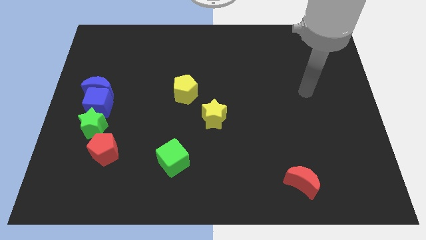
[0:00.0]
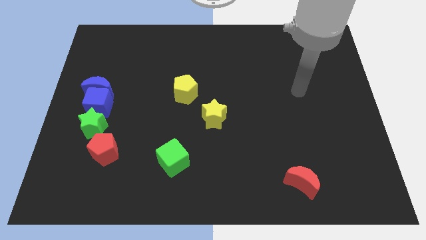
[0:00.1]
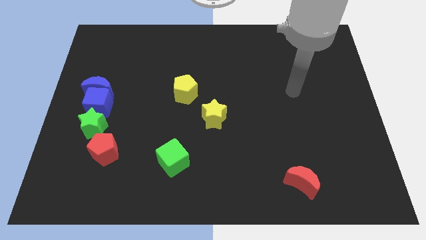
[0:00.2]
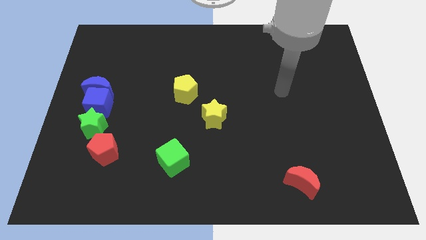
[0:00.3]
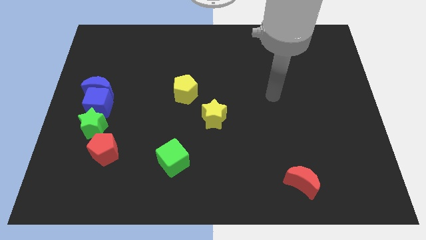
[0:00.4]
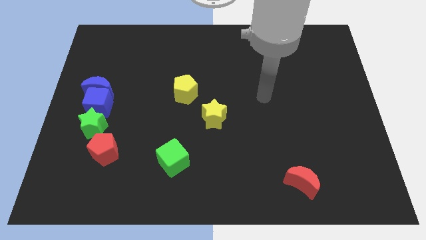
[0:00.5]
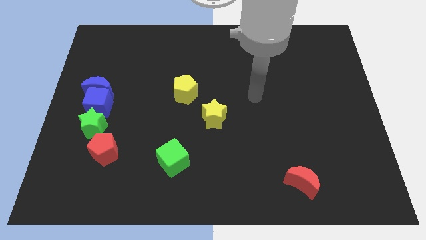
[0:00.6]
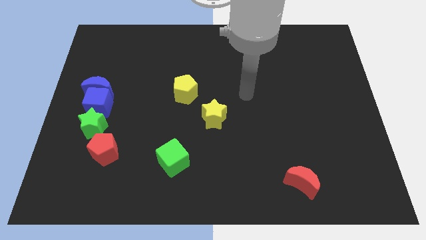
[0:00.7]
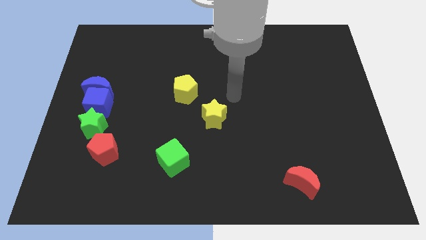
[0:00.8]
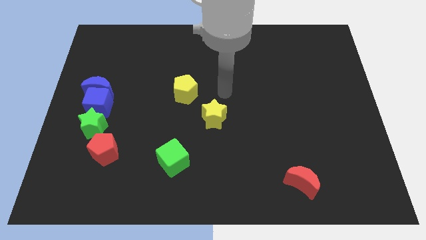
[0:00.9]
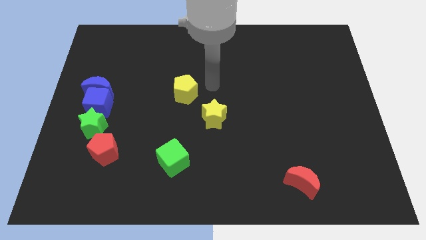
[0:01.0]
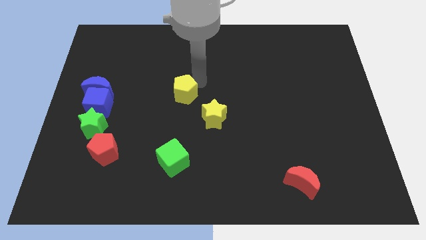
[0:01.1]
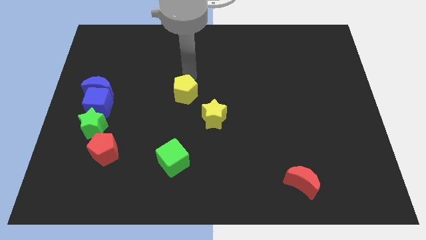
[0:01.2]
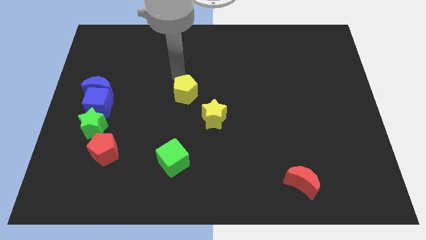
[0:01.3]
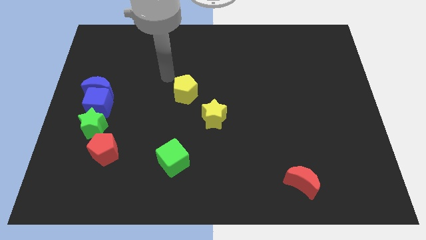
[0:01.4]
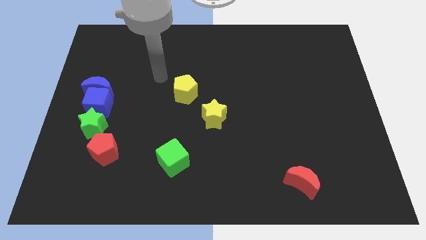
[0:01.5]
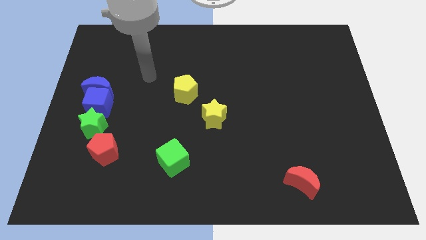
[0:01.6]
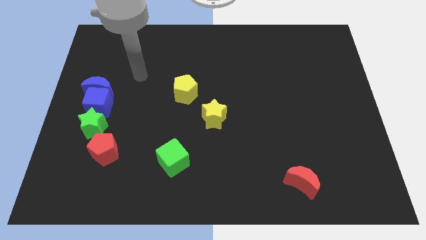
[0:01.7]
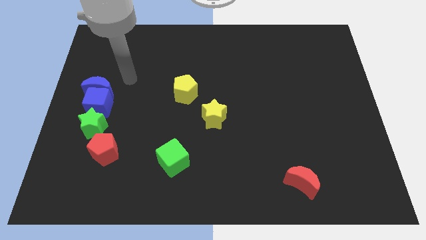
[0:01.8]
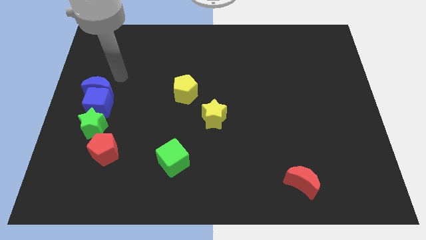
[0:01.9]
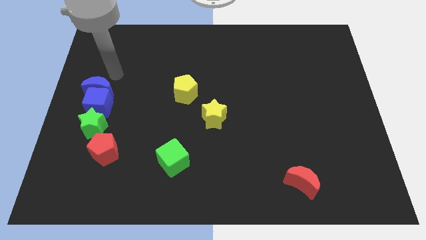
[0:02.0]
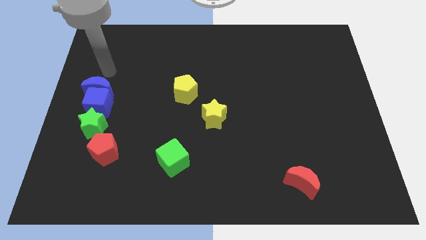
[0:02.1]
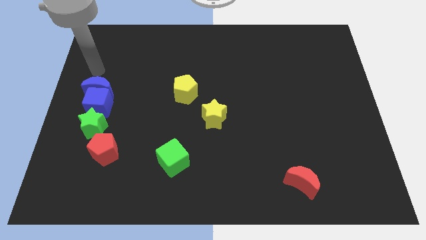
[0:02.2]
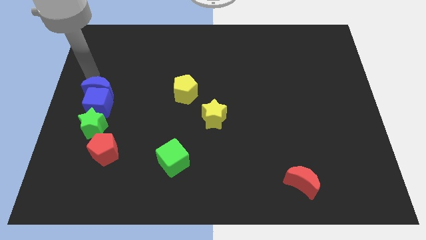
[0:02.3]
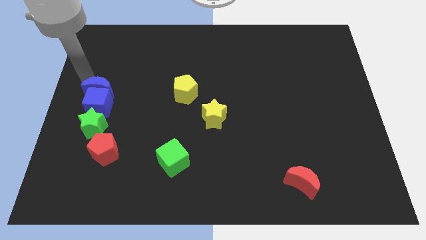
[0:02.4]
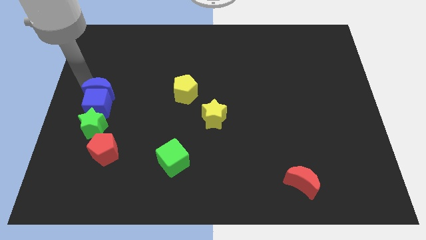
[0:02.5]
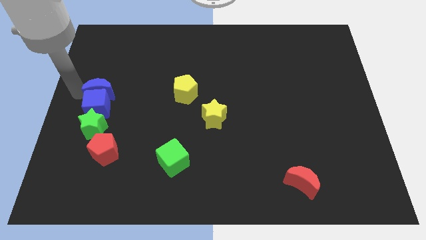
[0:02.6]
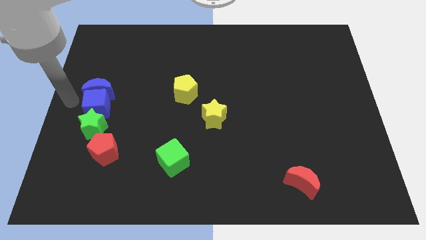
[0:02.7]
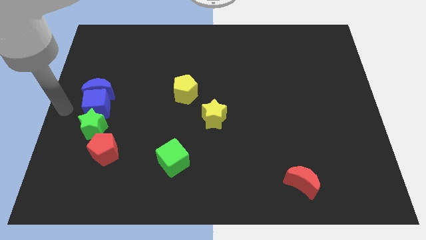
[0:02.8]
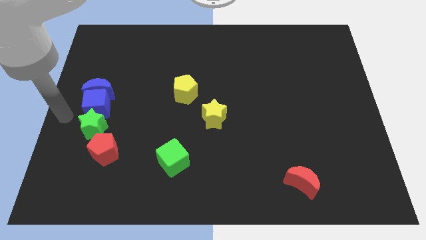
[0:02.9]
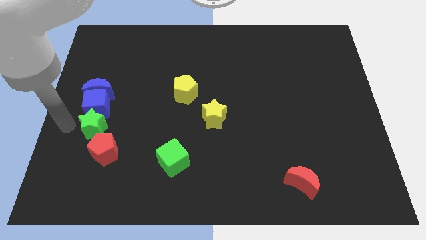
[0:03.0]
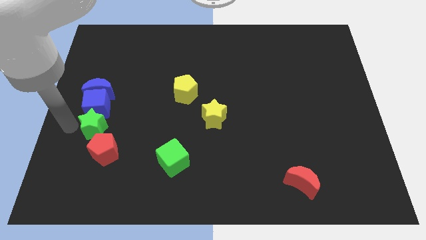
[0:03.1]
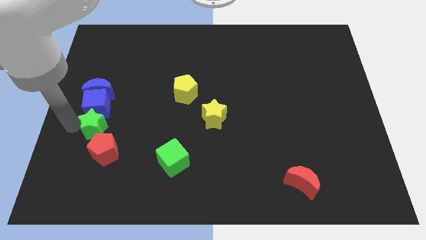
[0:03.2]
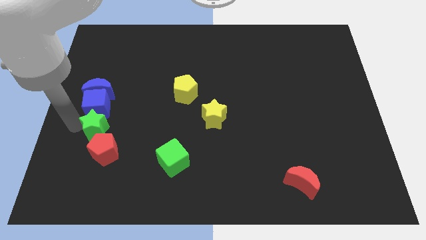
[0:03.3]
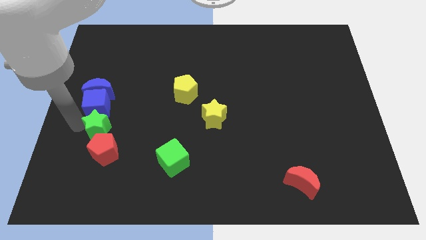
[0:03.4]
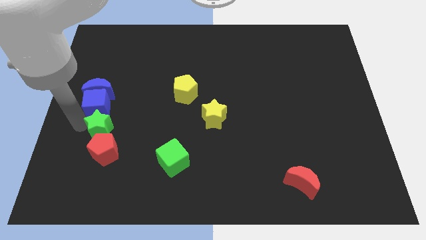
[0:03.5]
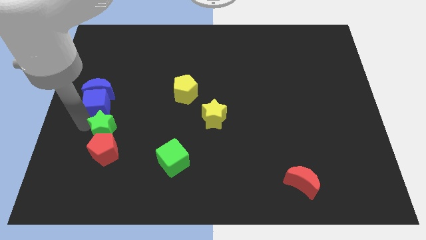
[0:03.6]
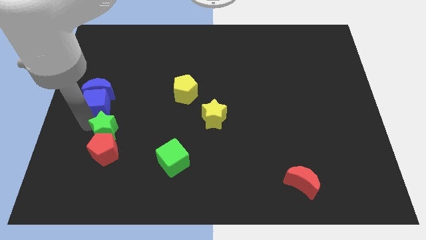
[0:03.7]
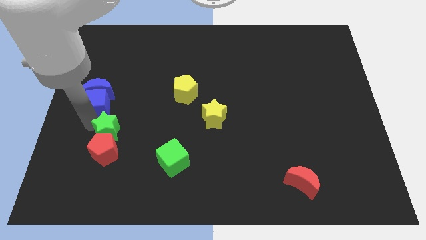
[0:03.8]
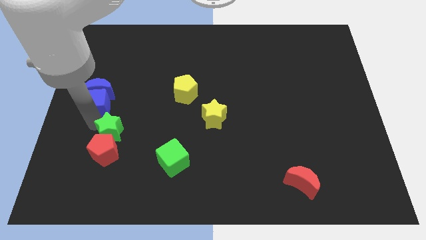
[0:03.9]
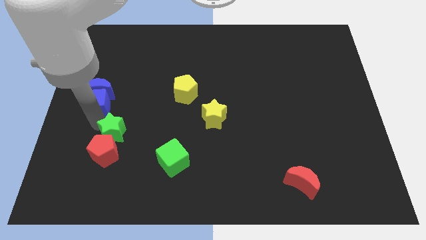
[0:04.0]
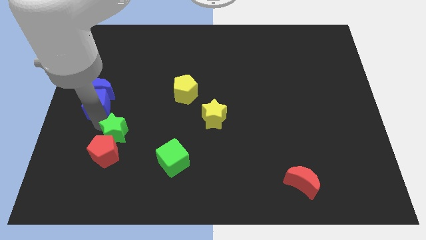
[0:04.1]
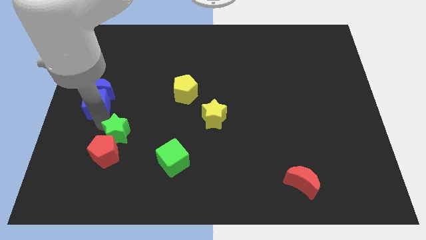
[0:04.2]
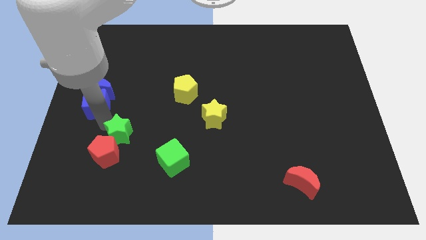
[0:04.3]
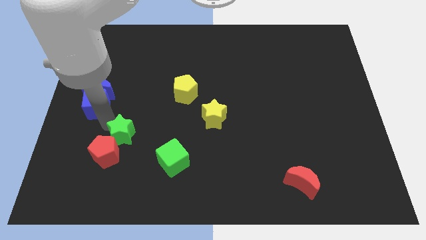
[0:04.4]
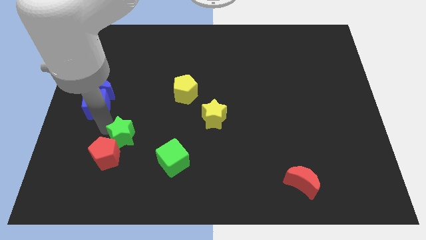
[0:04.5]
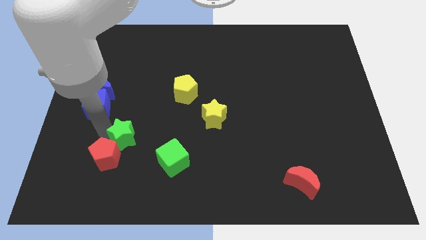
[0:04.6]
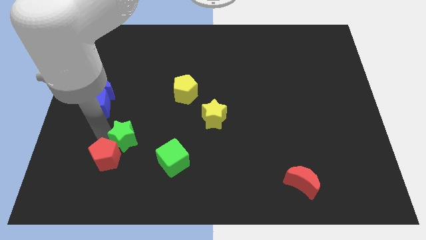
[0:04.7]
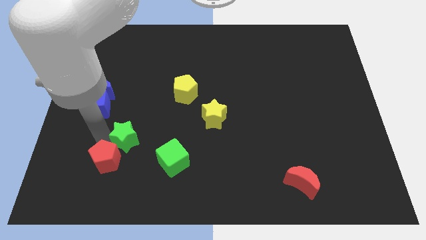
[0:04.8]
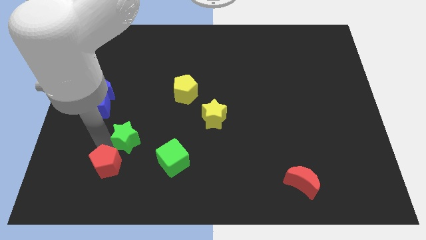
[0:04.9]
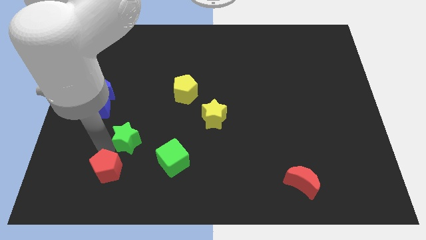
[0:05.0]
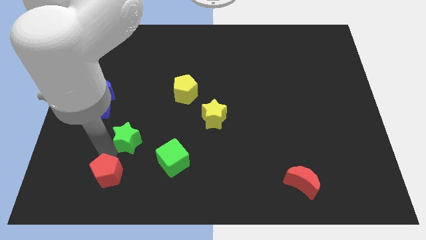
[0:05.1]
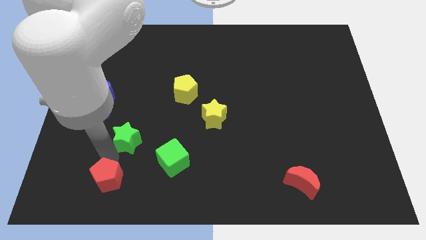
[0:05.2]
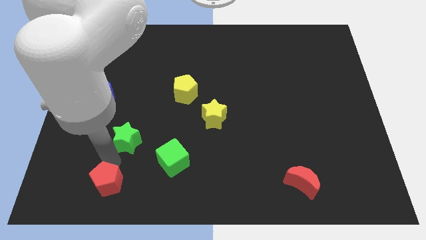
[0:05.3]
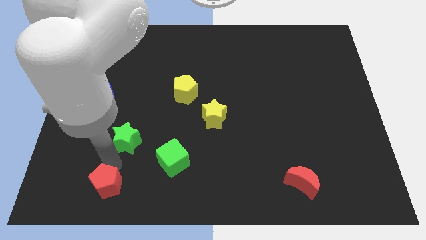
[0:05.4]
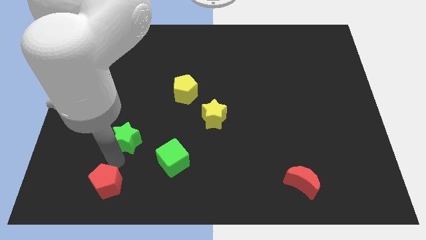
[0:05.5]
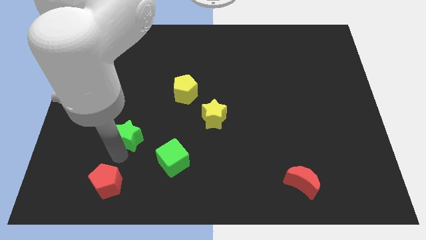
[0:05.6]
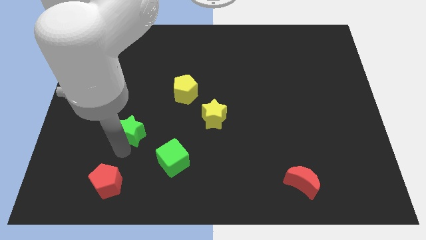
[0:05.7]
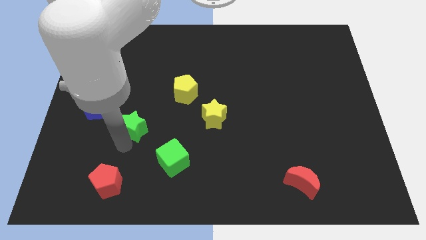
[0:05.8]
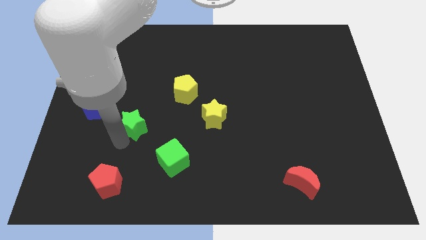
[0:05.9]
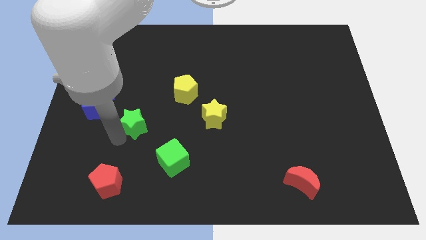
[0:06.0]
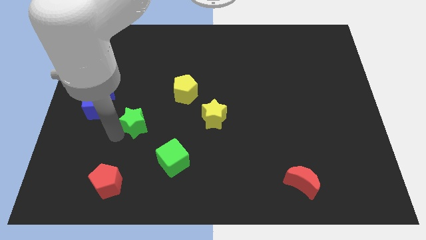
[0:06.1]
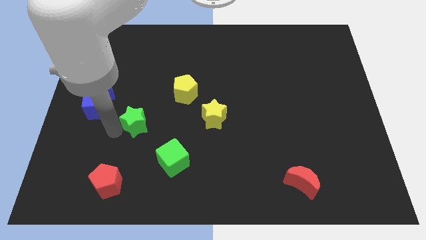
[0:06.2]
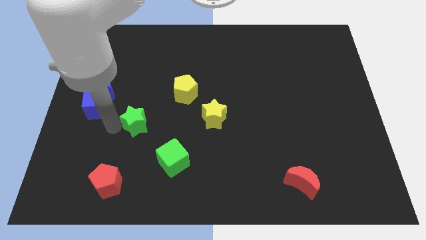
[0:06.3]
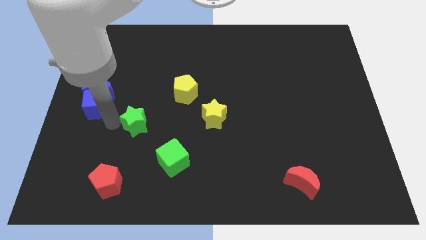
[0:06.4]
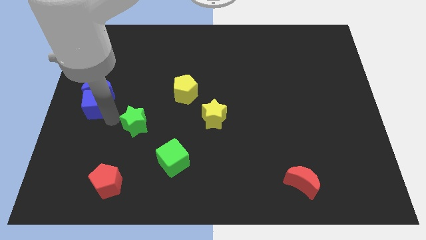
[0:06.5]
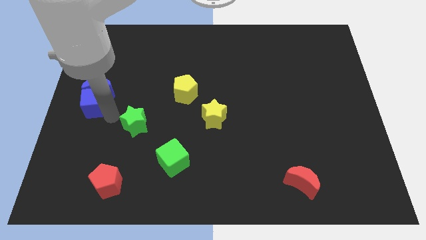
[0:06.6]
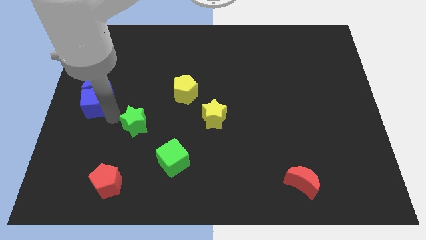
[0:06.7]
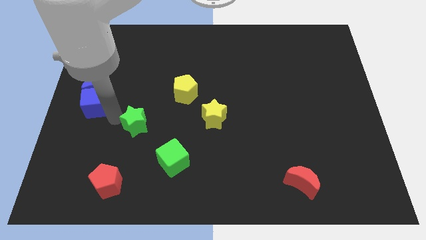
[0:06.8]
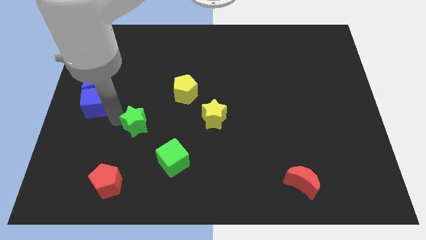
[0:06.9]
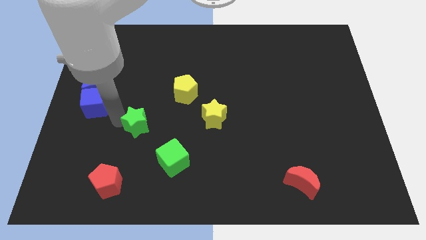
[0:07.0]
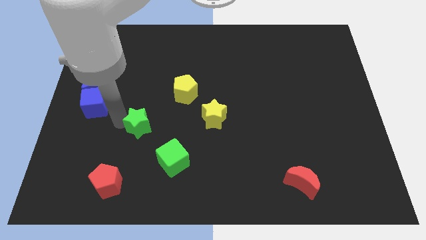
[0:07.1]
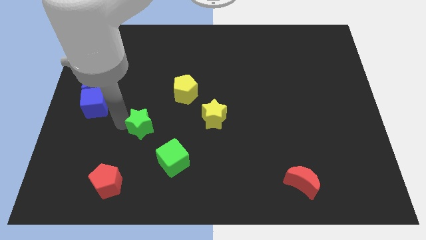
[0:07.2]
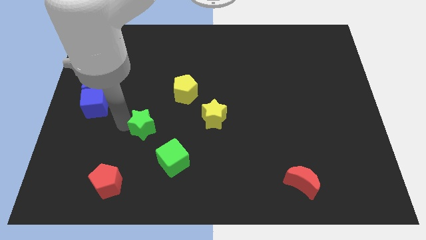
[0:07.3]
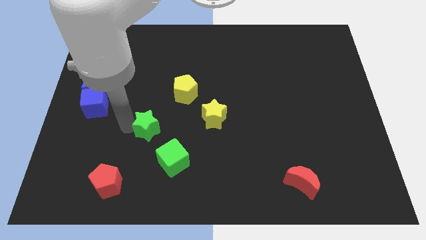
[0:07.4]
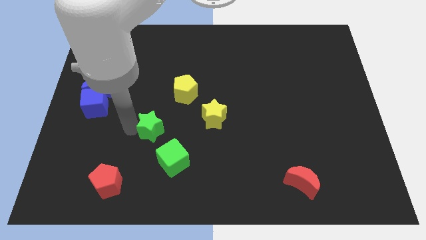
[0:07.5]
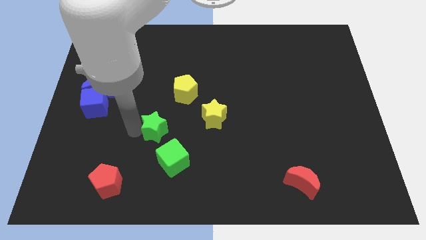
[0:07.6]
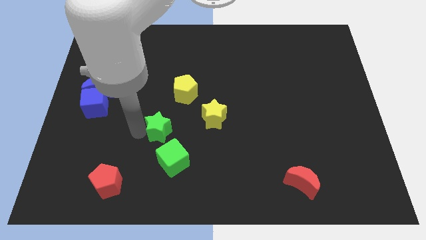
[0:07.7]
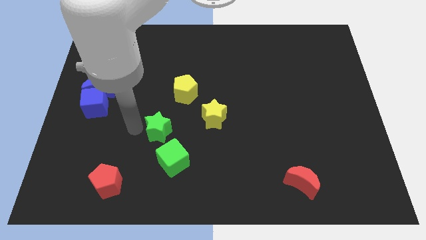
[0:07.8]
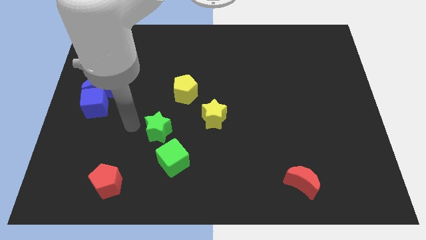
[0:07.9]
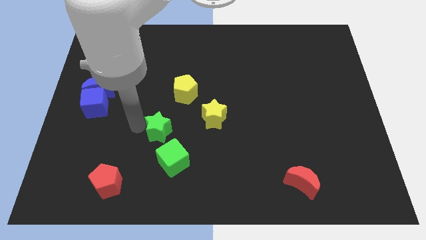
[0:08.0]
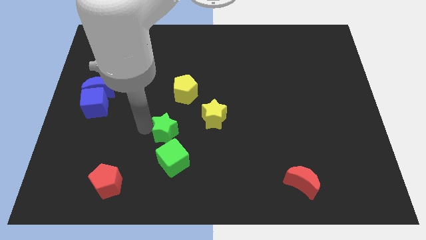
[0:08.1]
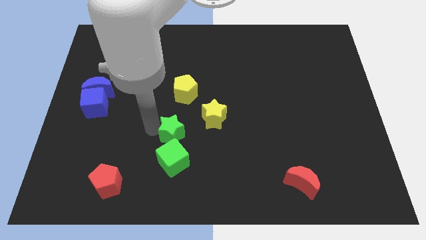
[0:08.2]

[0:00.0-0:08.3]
move the green star to the bottom left side of the yellow star
